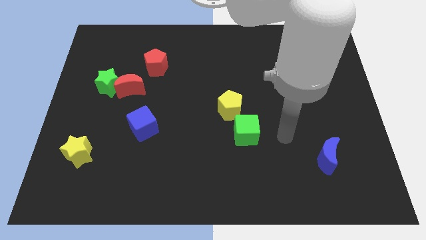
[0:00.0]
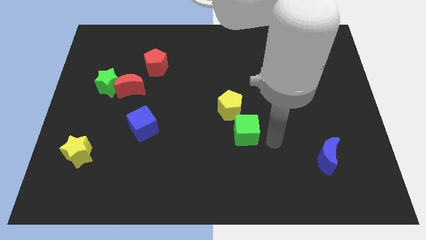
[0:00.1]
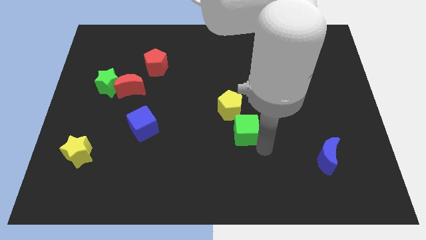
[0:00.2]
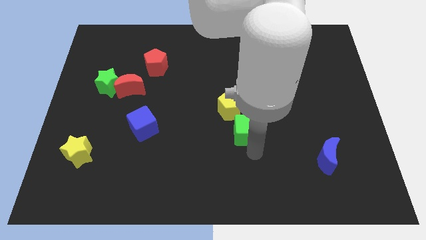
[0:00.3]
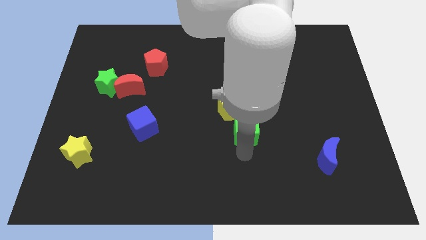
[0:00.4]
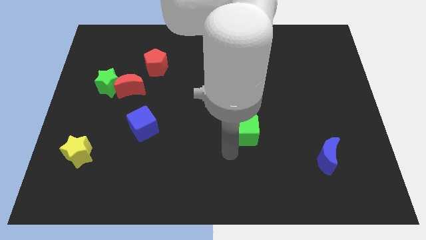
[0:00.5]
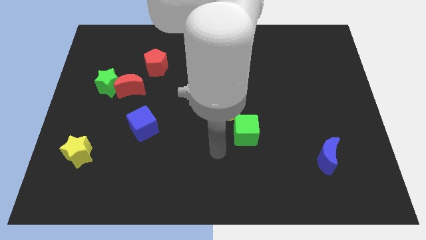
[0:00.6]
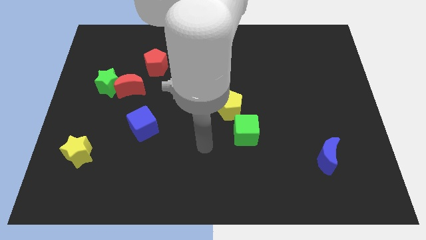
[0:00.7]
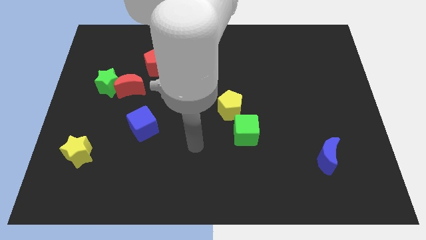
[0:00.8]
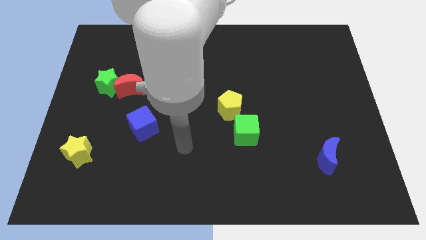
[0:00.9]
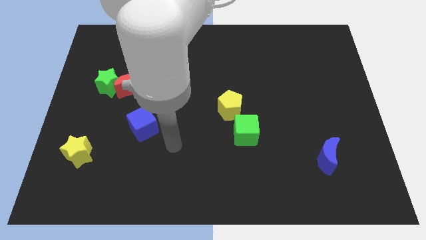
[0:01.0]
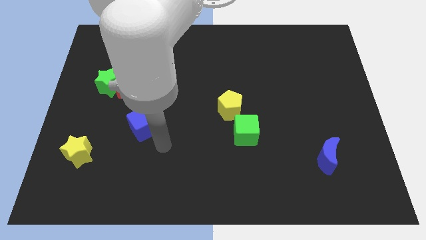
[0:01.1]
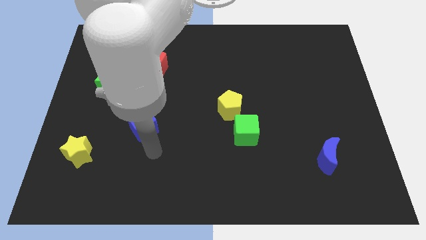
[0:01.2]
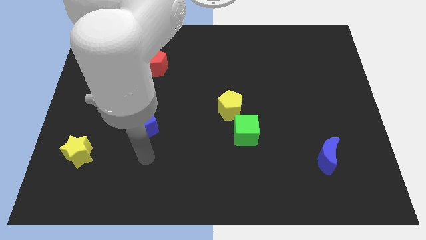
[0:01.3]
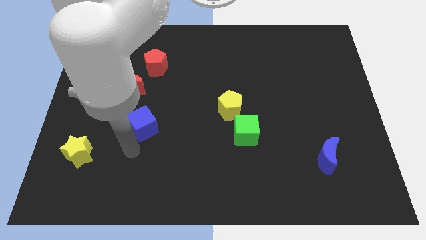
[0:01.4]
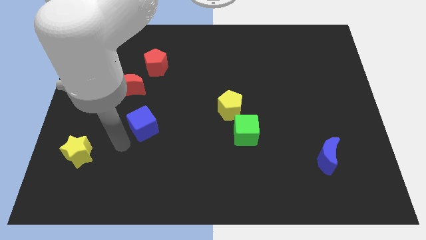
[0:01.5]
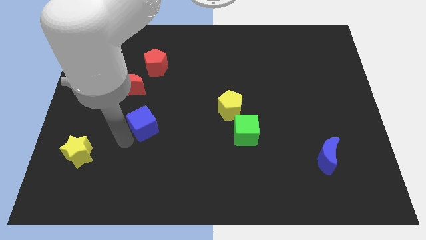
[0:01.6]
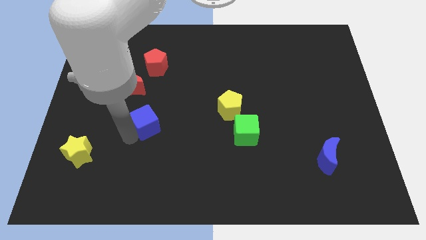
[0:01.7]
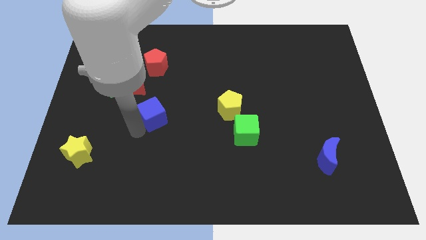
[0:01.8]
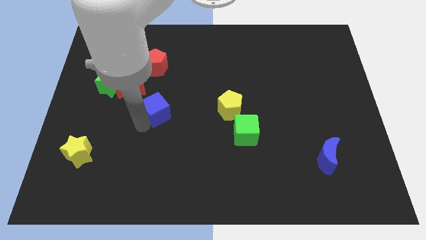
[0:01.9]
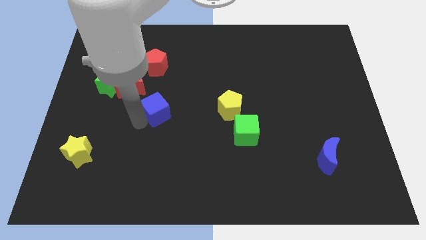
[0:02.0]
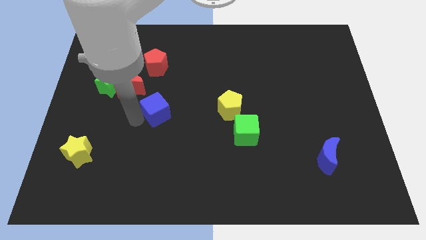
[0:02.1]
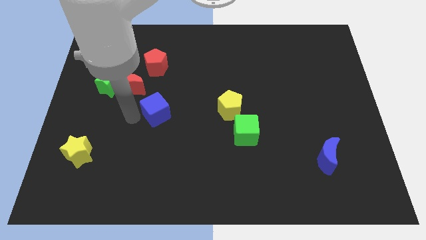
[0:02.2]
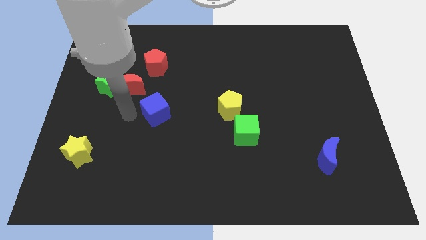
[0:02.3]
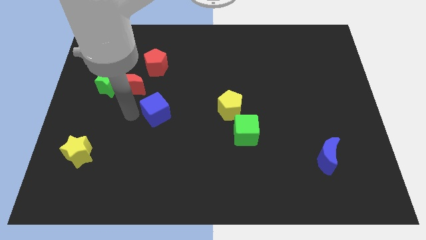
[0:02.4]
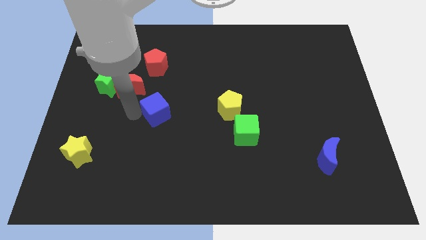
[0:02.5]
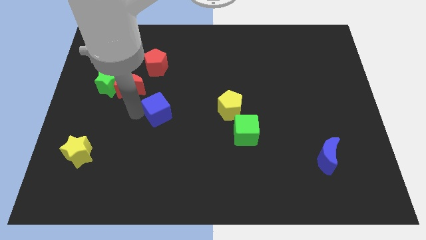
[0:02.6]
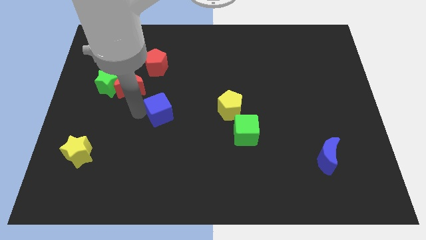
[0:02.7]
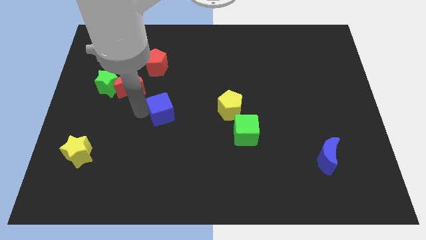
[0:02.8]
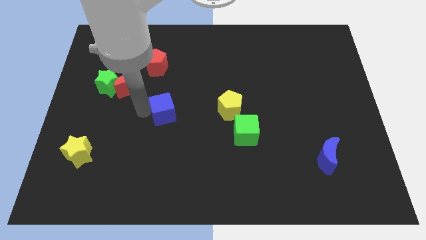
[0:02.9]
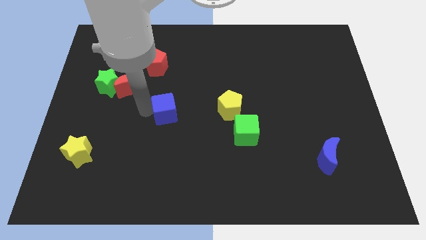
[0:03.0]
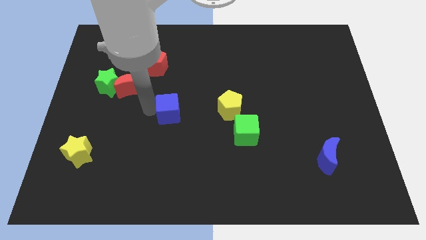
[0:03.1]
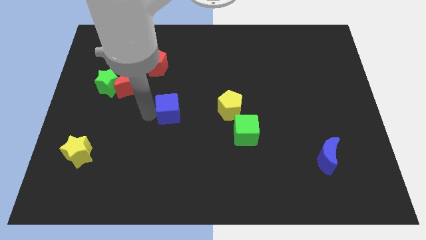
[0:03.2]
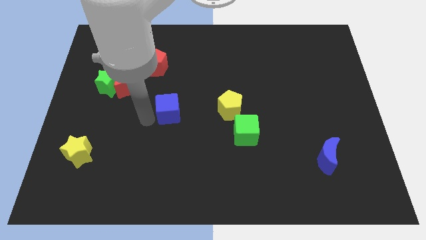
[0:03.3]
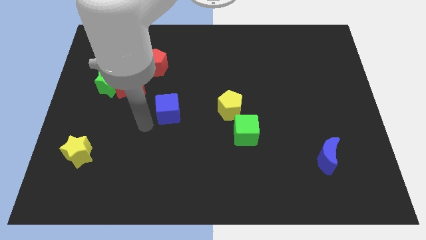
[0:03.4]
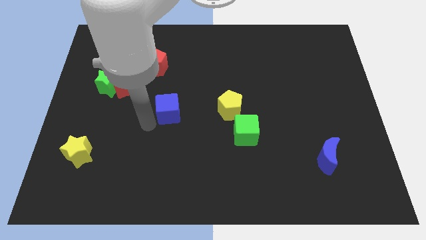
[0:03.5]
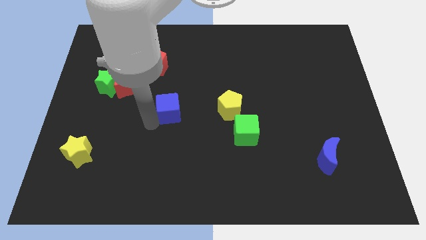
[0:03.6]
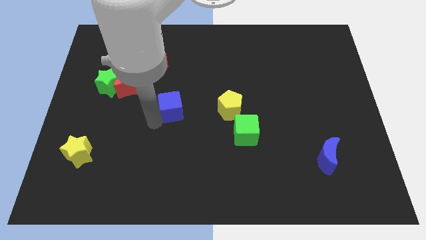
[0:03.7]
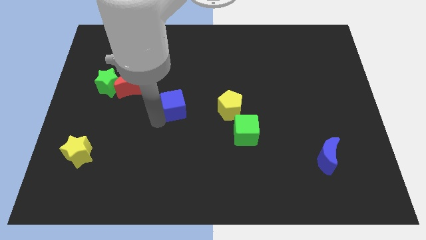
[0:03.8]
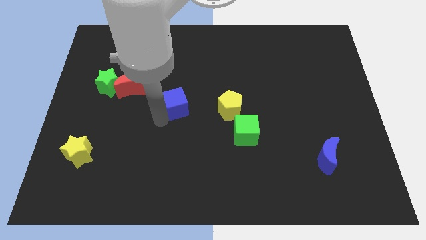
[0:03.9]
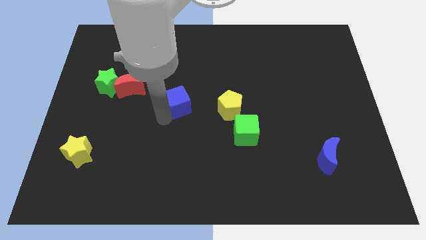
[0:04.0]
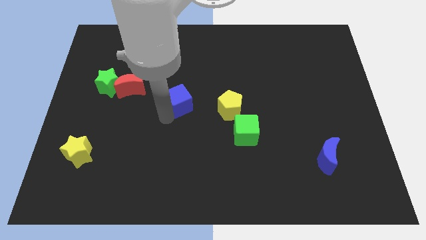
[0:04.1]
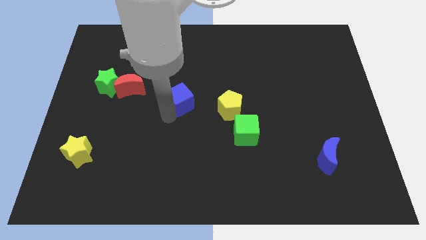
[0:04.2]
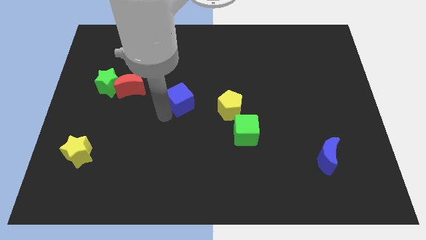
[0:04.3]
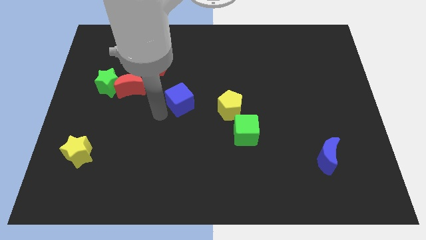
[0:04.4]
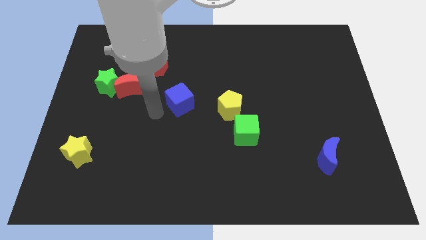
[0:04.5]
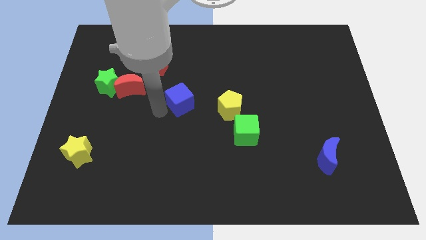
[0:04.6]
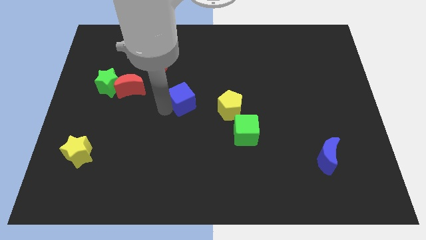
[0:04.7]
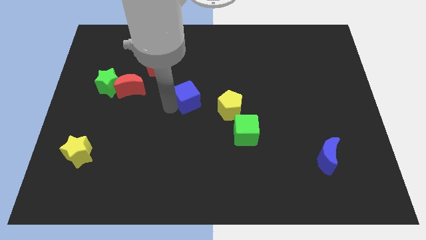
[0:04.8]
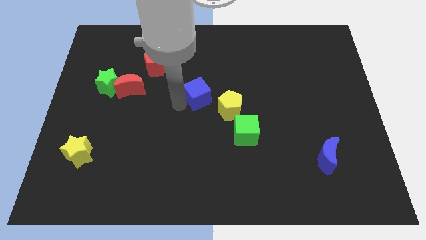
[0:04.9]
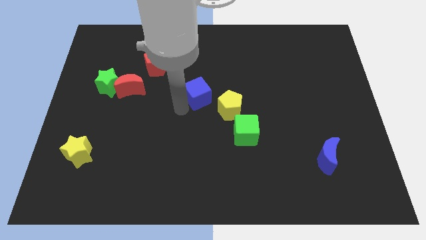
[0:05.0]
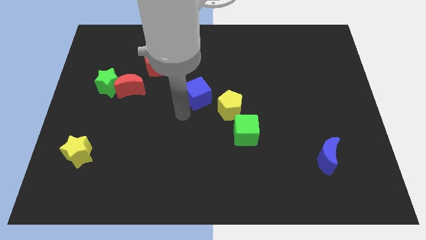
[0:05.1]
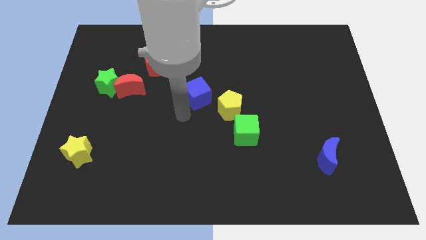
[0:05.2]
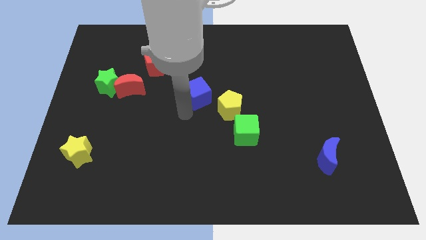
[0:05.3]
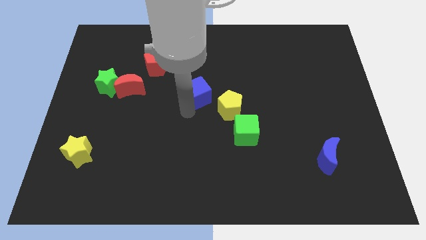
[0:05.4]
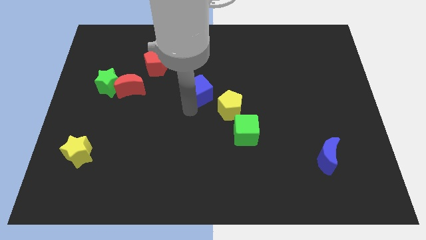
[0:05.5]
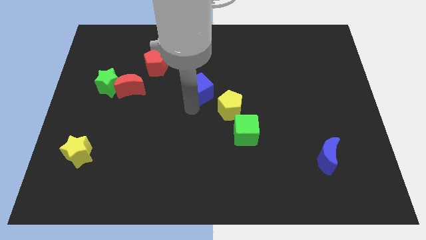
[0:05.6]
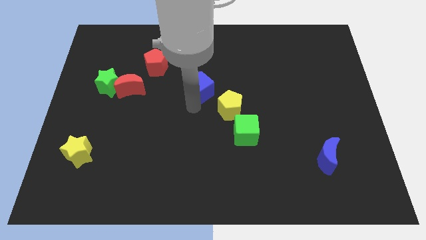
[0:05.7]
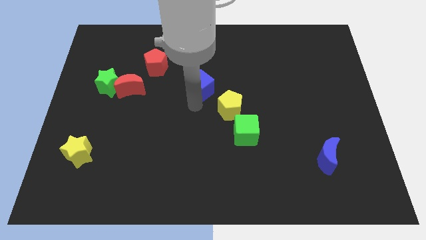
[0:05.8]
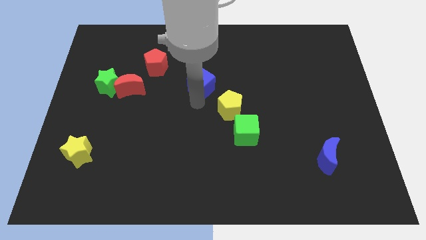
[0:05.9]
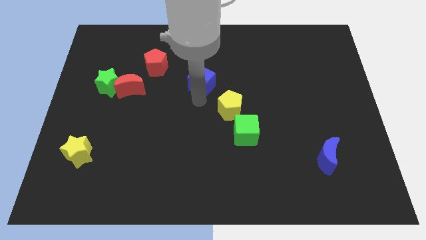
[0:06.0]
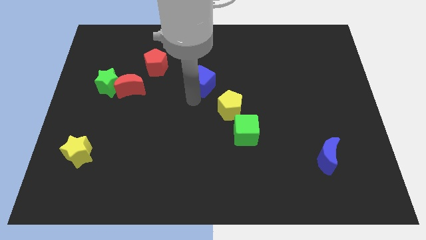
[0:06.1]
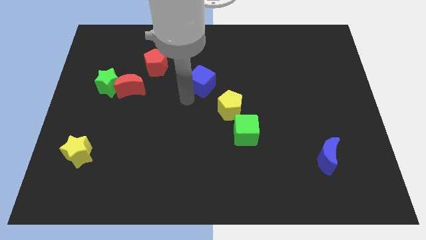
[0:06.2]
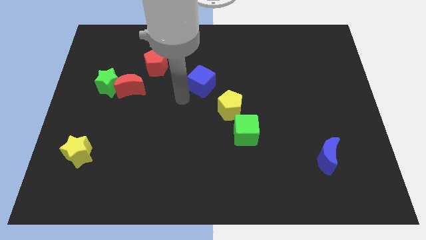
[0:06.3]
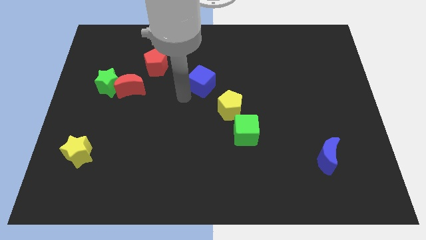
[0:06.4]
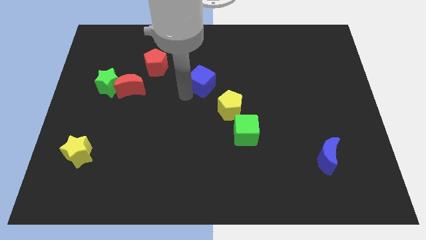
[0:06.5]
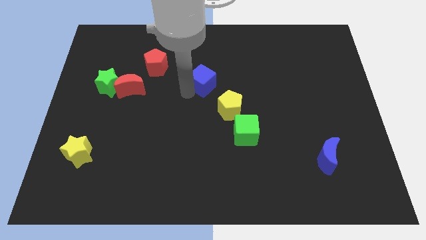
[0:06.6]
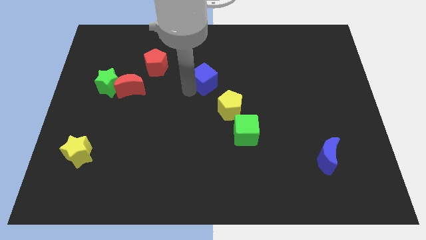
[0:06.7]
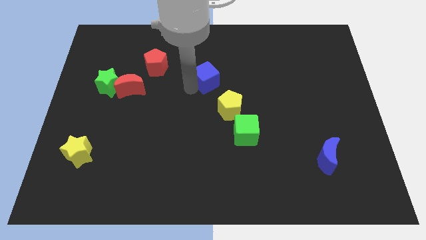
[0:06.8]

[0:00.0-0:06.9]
move the blue cube diagonally up and to the right

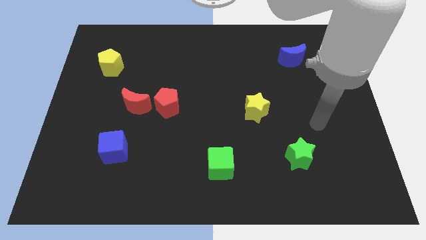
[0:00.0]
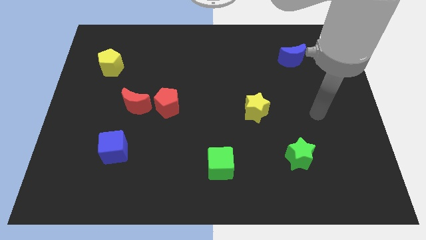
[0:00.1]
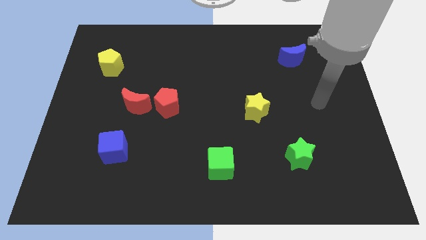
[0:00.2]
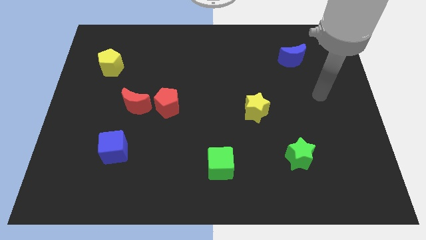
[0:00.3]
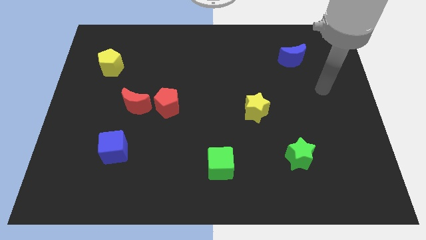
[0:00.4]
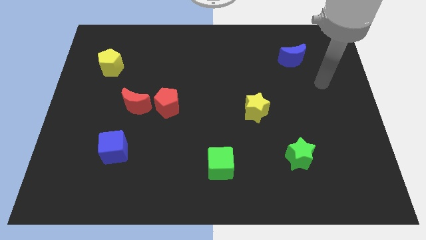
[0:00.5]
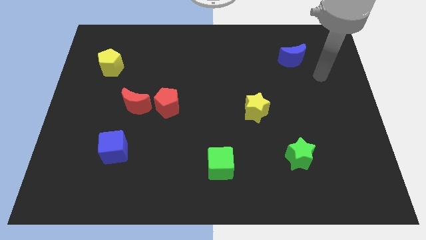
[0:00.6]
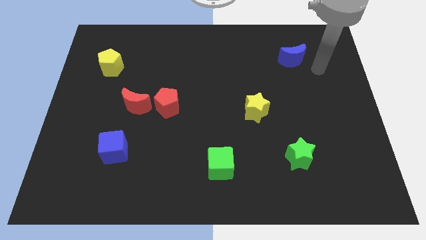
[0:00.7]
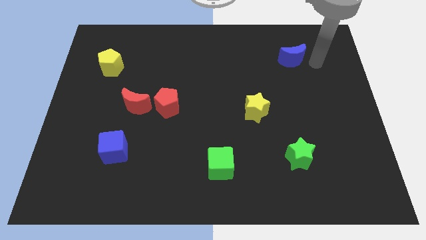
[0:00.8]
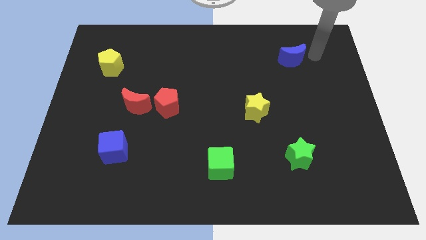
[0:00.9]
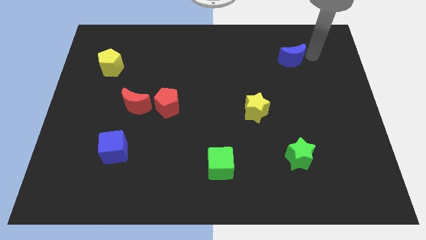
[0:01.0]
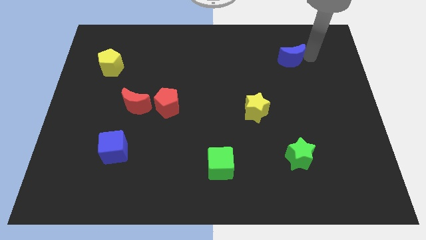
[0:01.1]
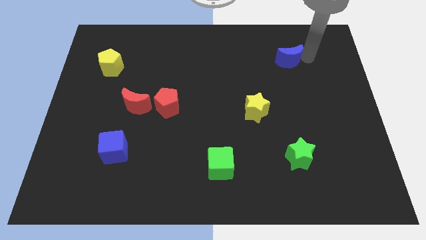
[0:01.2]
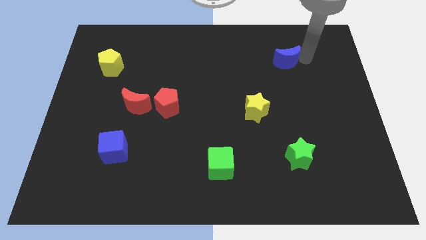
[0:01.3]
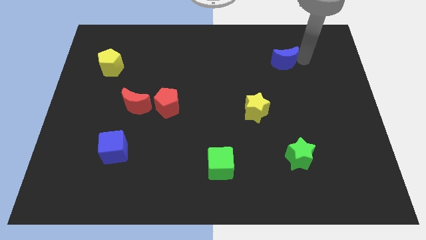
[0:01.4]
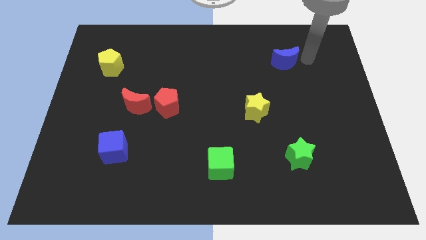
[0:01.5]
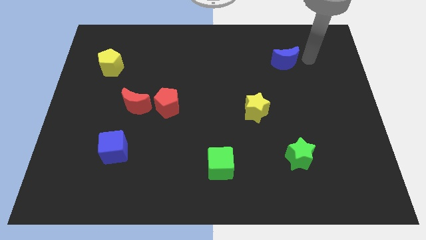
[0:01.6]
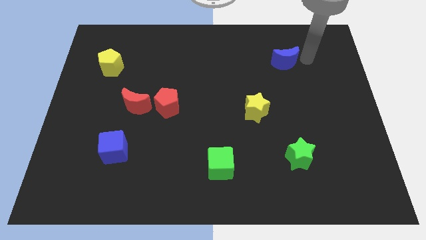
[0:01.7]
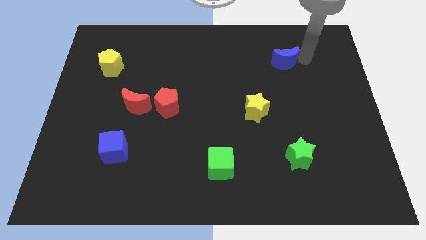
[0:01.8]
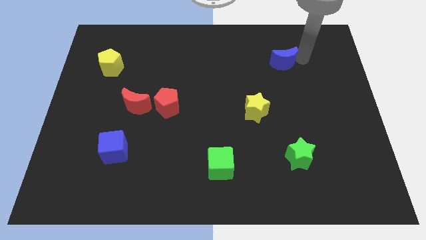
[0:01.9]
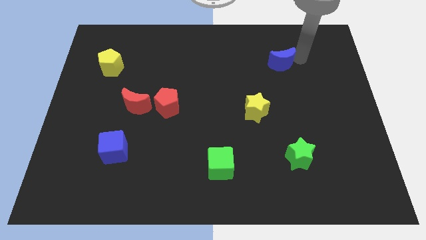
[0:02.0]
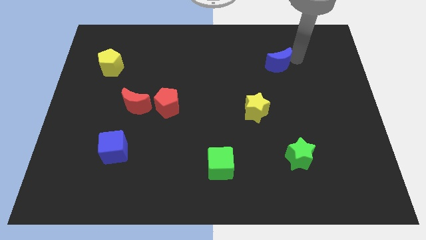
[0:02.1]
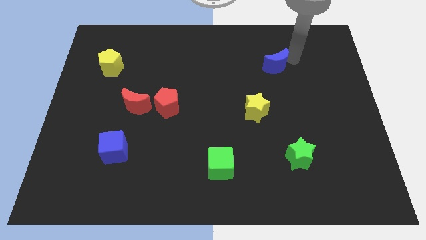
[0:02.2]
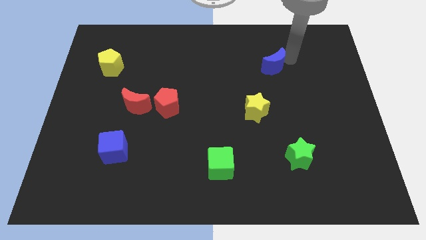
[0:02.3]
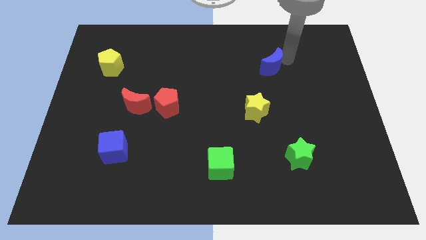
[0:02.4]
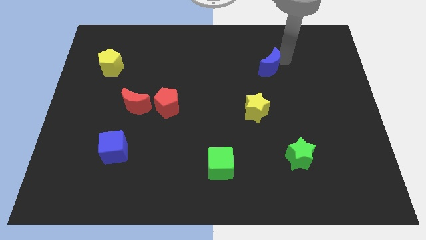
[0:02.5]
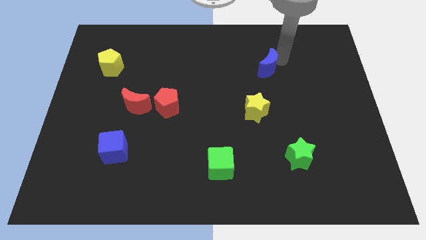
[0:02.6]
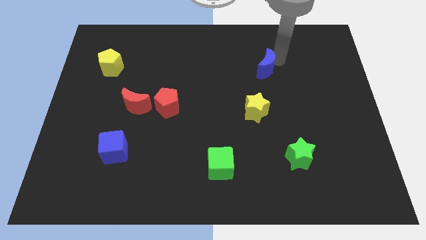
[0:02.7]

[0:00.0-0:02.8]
move the blue moon left a bit
